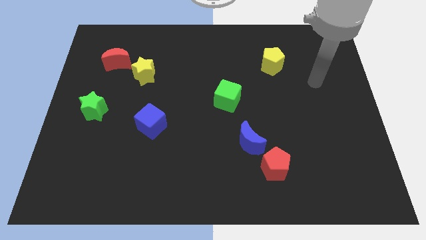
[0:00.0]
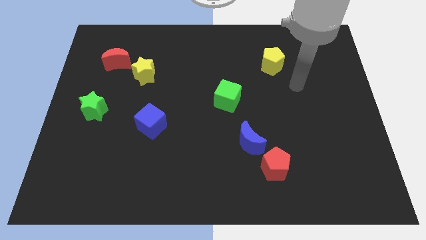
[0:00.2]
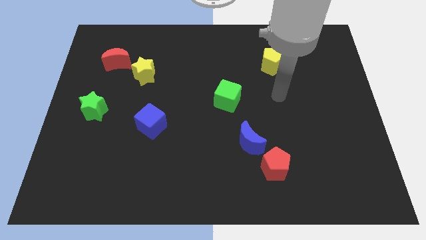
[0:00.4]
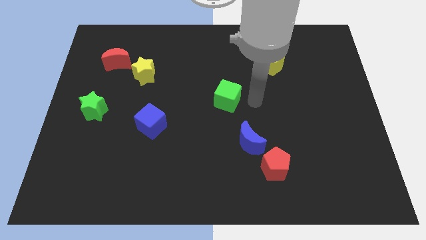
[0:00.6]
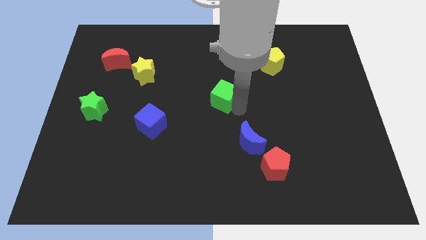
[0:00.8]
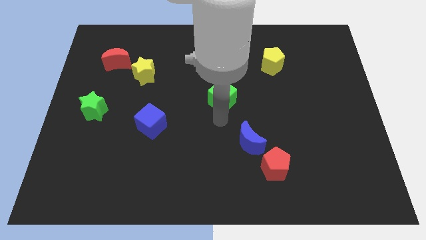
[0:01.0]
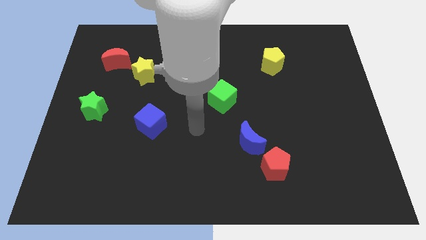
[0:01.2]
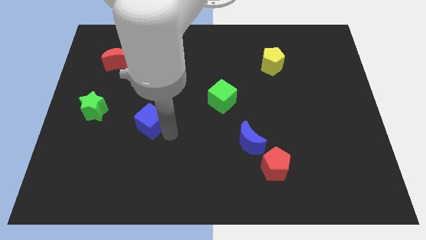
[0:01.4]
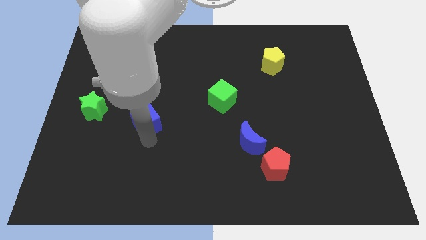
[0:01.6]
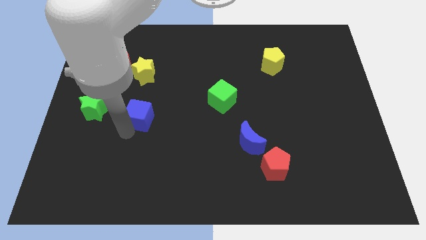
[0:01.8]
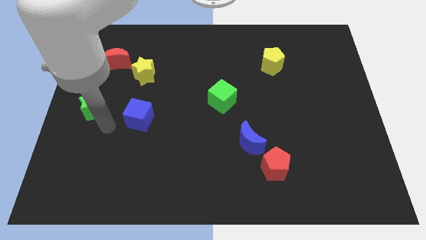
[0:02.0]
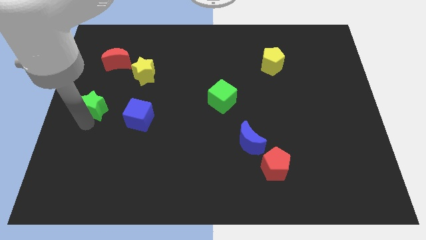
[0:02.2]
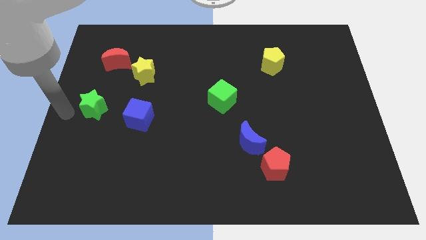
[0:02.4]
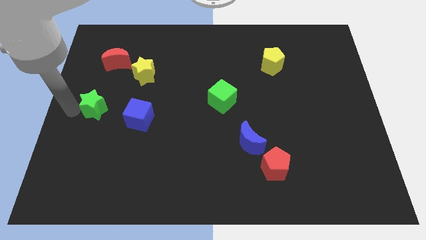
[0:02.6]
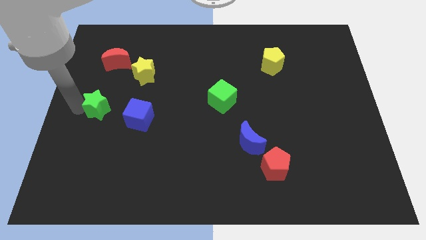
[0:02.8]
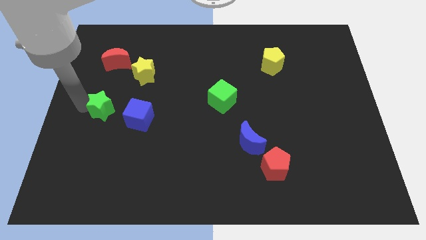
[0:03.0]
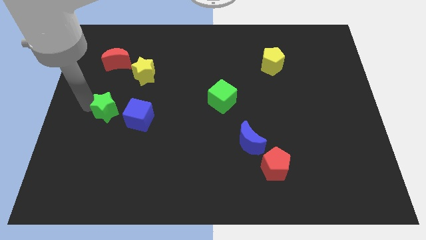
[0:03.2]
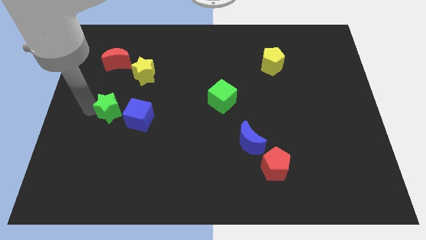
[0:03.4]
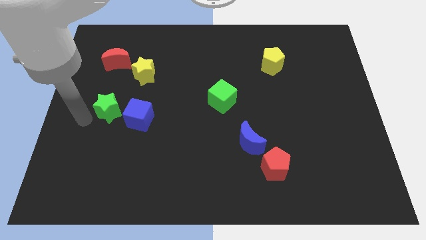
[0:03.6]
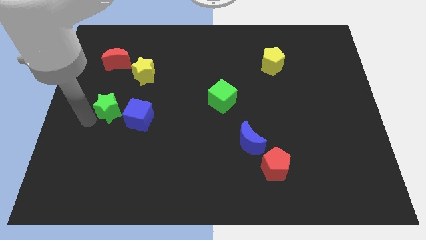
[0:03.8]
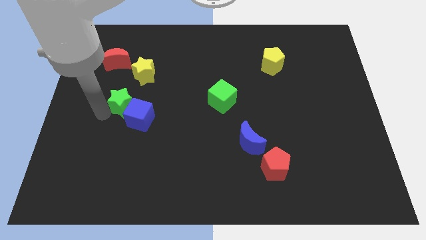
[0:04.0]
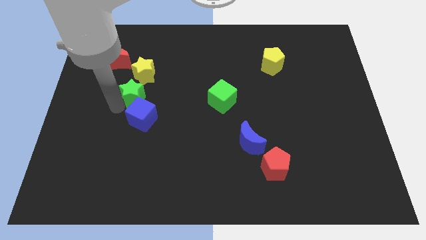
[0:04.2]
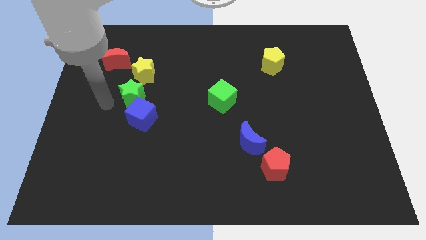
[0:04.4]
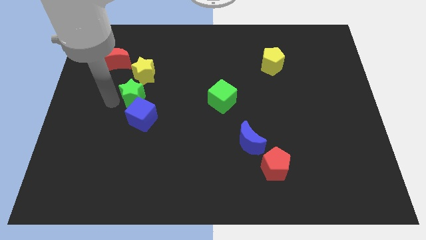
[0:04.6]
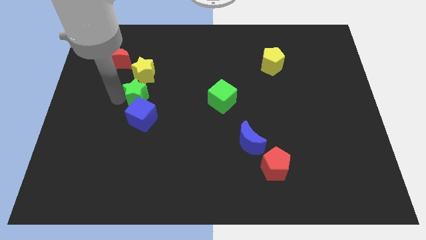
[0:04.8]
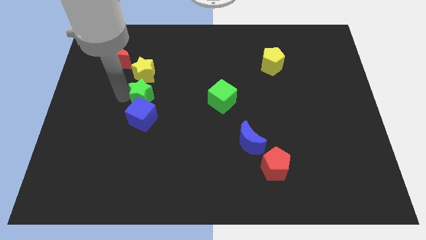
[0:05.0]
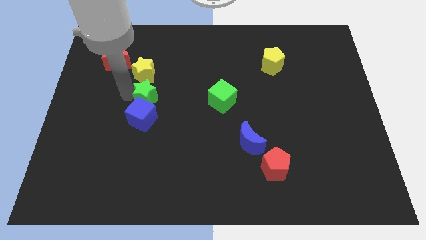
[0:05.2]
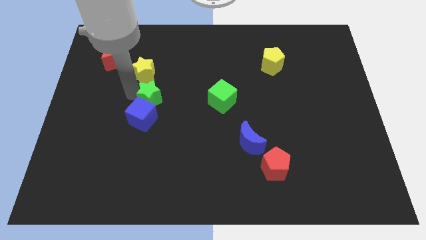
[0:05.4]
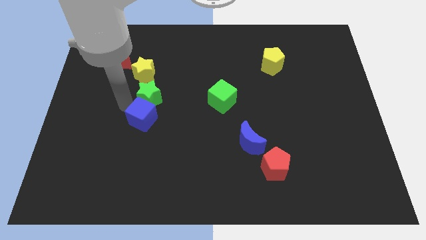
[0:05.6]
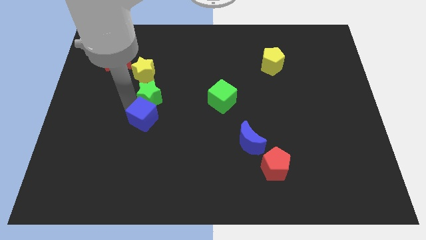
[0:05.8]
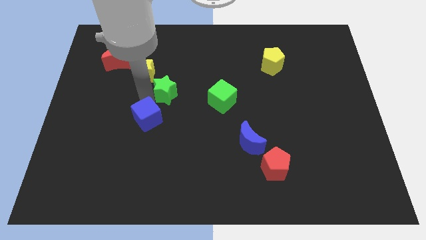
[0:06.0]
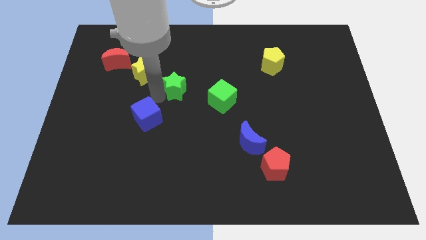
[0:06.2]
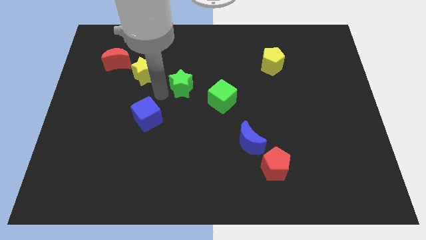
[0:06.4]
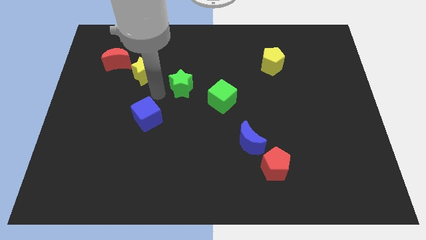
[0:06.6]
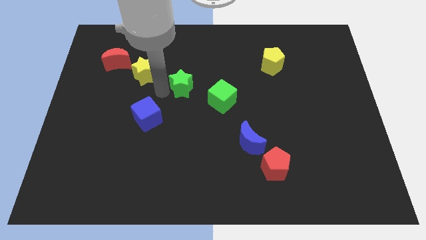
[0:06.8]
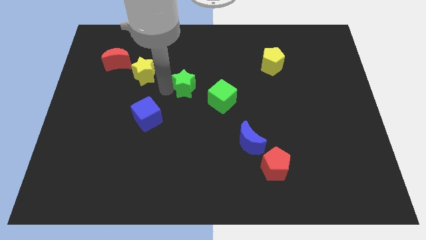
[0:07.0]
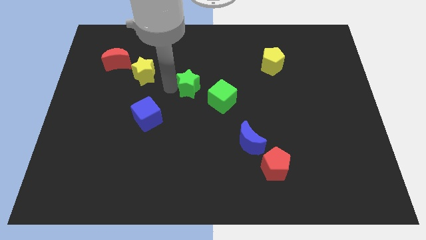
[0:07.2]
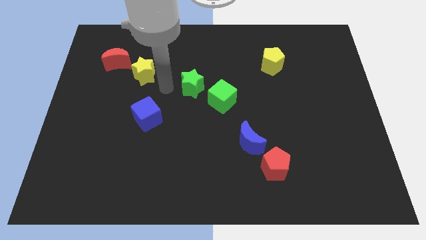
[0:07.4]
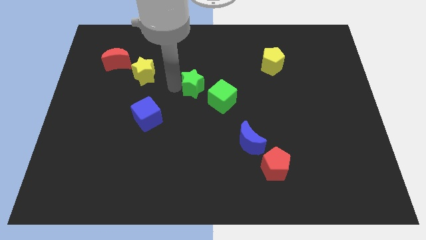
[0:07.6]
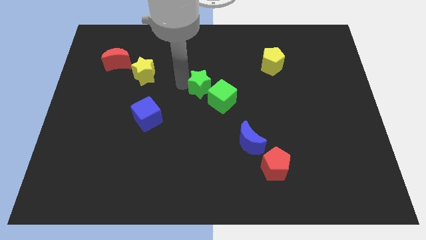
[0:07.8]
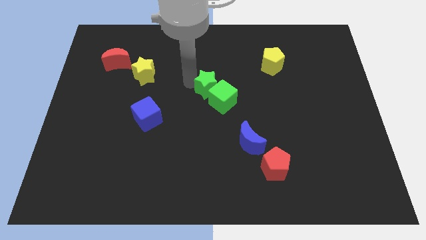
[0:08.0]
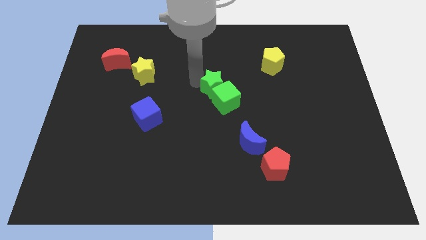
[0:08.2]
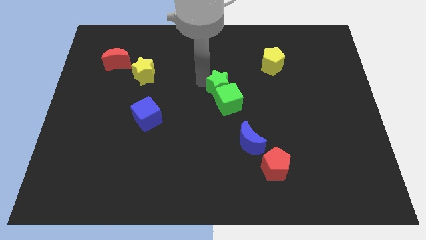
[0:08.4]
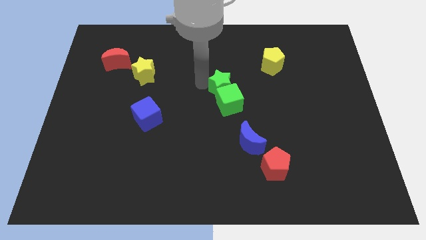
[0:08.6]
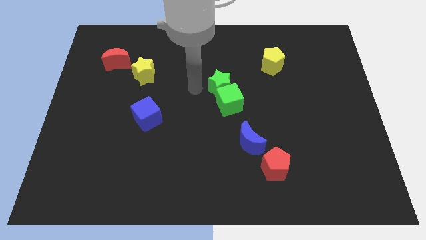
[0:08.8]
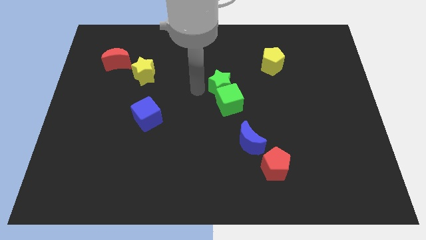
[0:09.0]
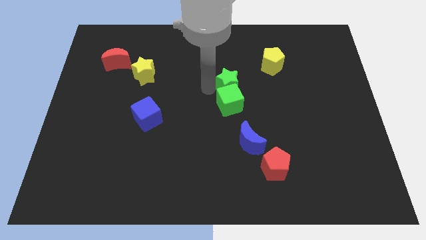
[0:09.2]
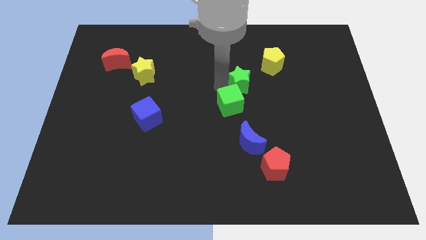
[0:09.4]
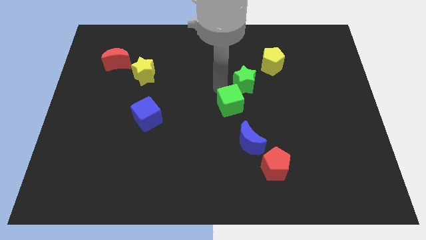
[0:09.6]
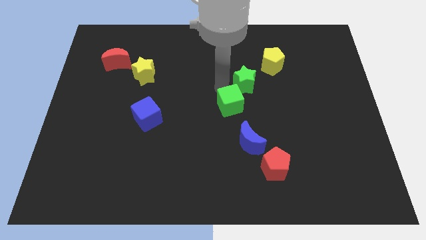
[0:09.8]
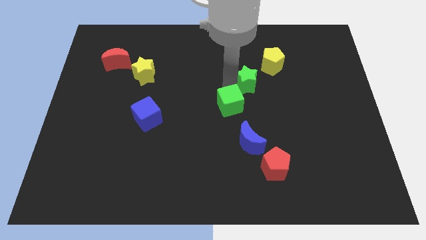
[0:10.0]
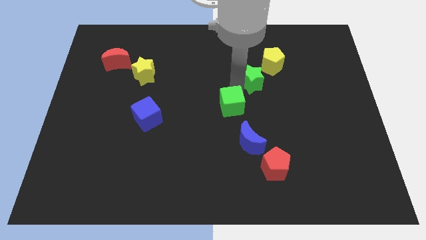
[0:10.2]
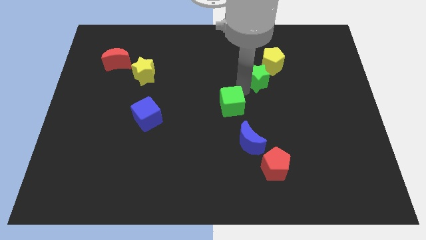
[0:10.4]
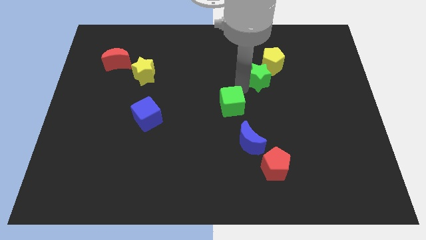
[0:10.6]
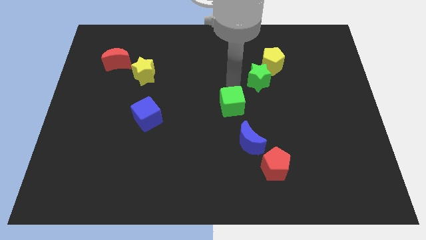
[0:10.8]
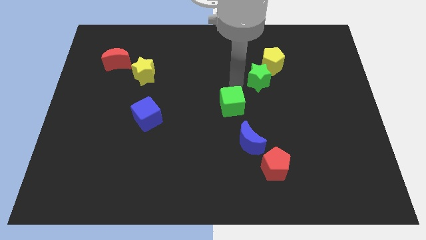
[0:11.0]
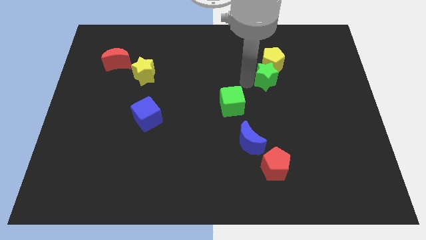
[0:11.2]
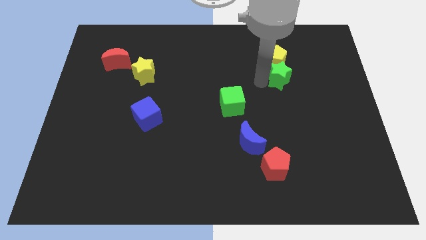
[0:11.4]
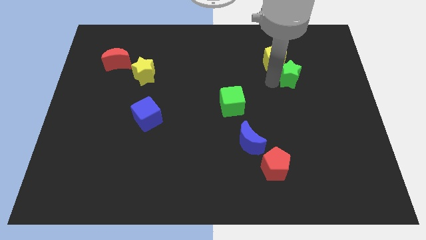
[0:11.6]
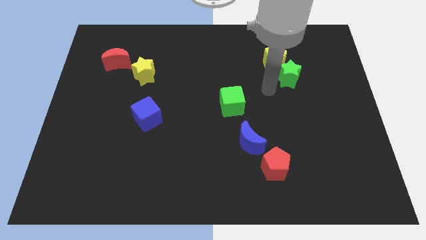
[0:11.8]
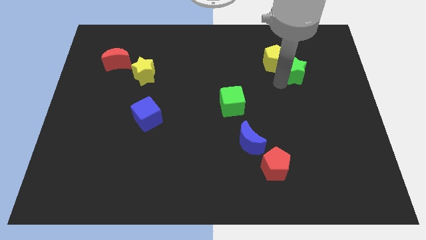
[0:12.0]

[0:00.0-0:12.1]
put the green star to the right of the yellow pentagon

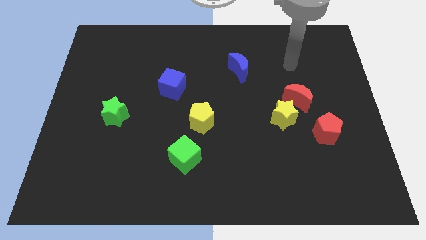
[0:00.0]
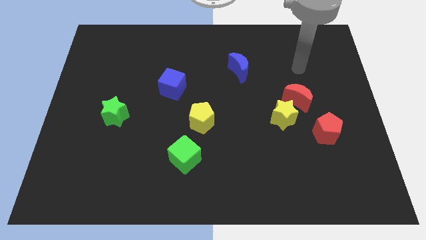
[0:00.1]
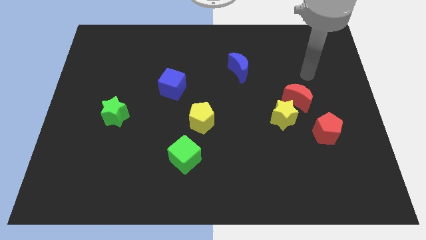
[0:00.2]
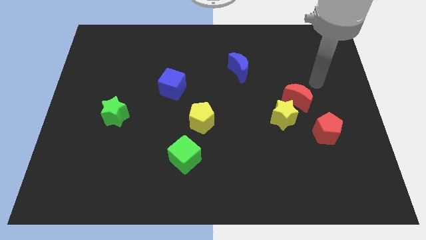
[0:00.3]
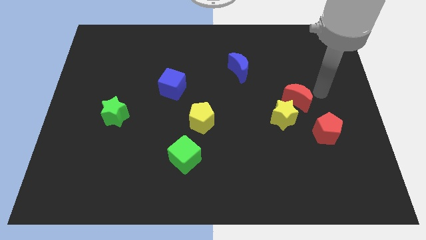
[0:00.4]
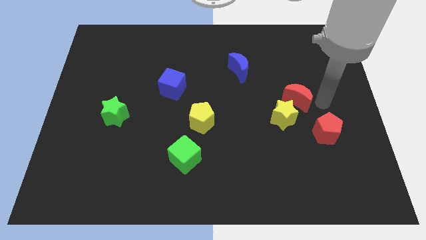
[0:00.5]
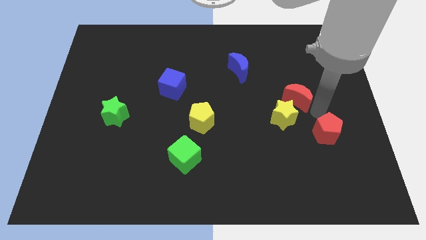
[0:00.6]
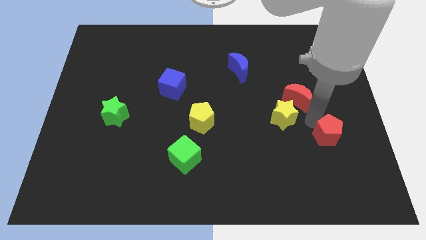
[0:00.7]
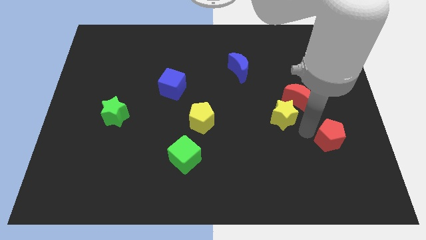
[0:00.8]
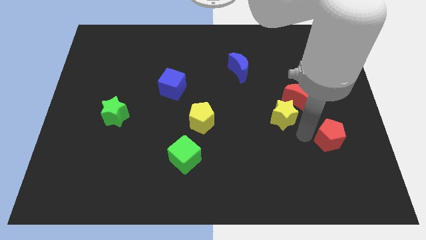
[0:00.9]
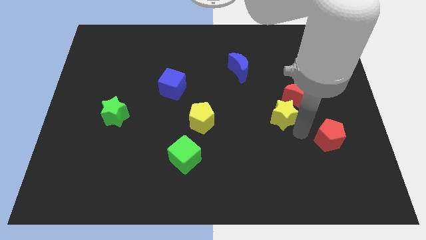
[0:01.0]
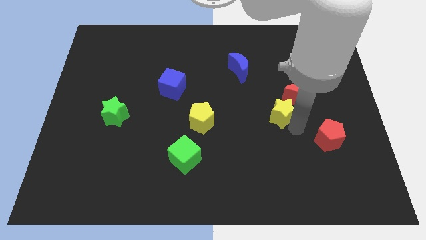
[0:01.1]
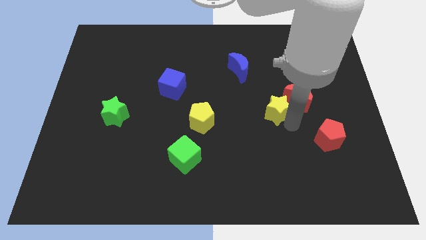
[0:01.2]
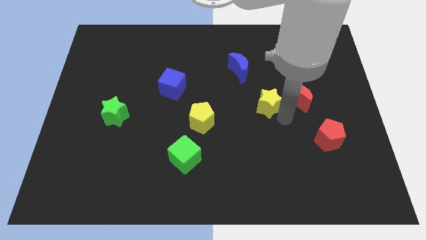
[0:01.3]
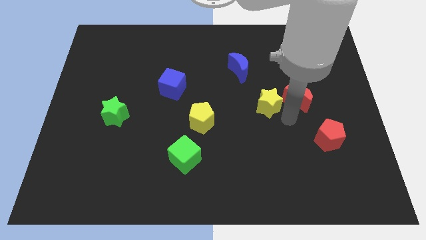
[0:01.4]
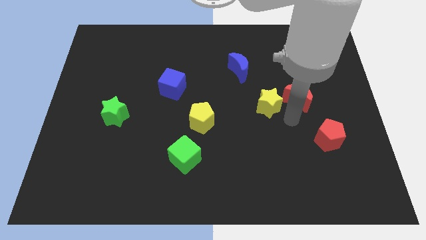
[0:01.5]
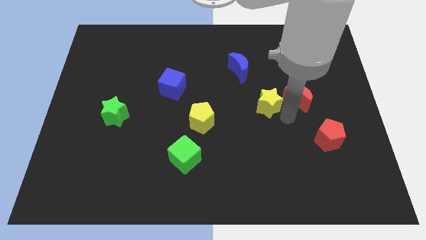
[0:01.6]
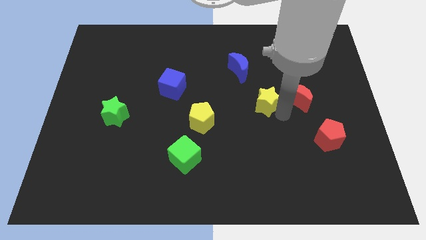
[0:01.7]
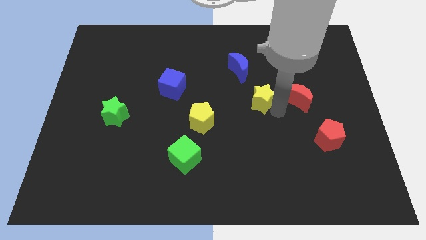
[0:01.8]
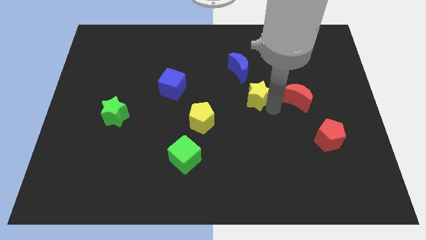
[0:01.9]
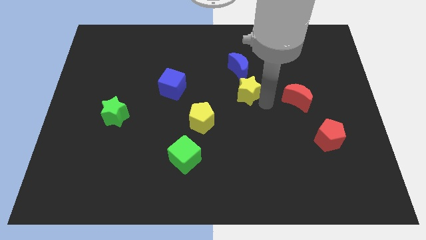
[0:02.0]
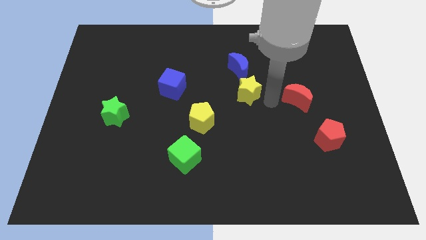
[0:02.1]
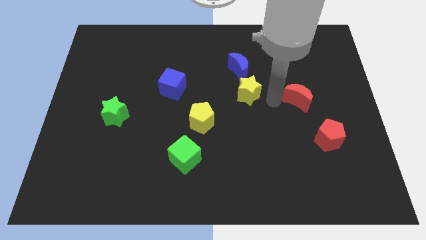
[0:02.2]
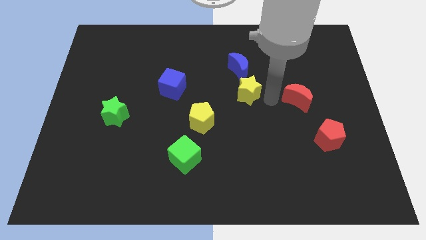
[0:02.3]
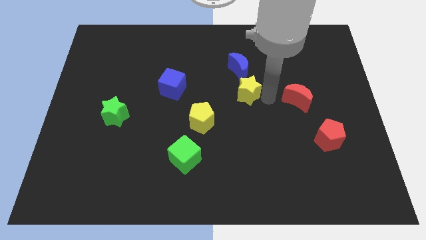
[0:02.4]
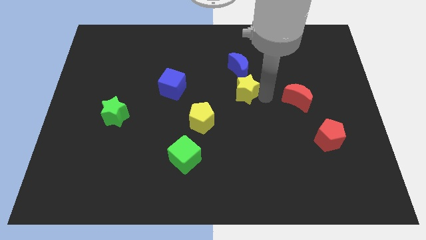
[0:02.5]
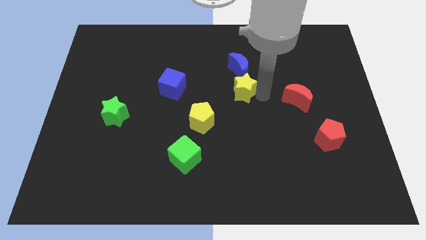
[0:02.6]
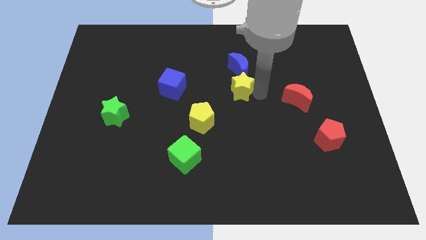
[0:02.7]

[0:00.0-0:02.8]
move the yellow star to the bottom left side of the blue moon
